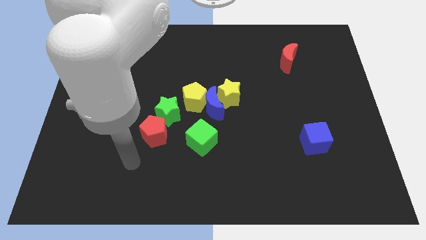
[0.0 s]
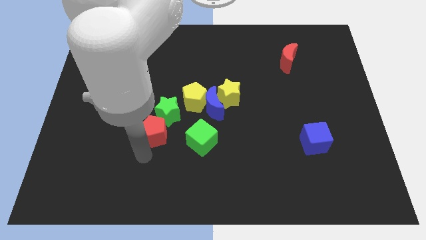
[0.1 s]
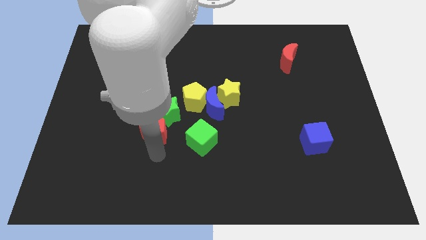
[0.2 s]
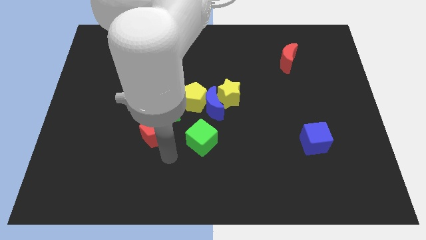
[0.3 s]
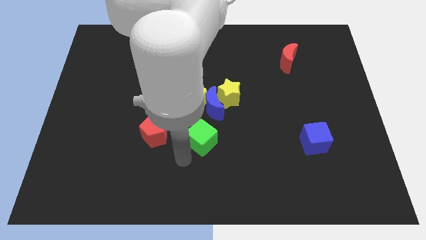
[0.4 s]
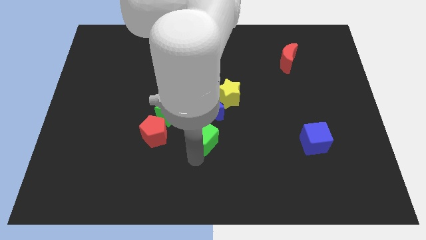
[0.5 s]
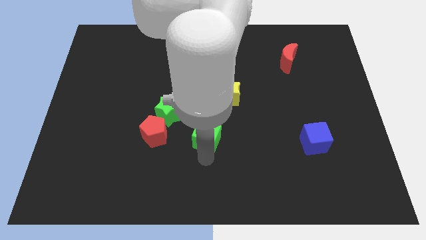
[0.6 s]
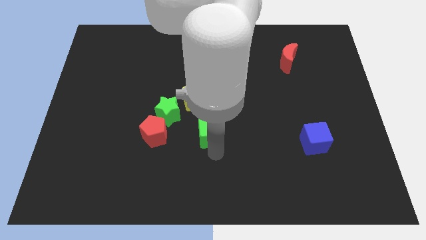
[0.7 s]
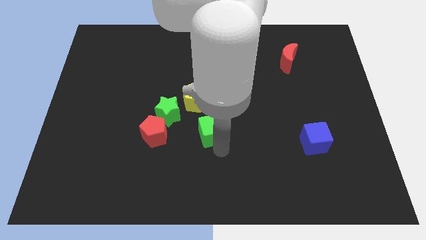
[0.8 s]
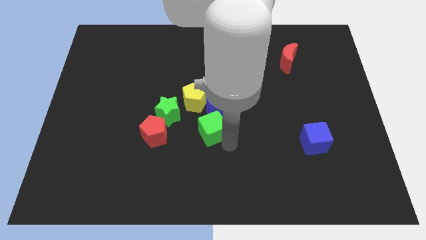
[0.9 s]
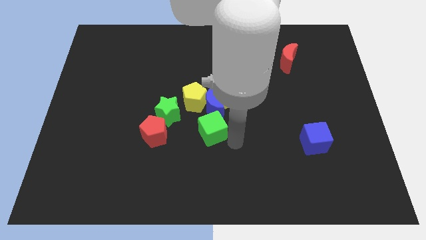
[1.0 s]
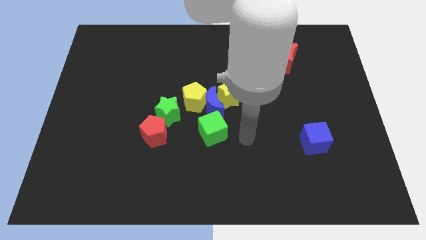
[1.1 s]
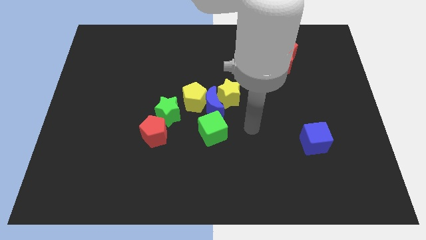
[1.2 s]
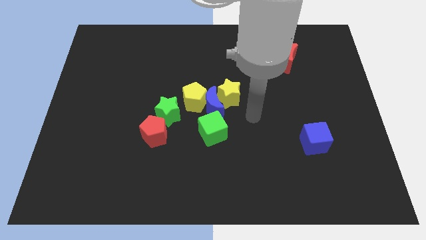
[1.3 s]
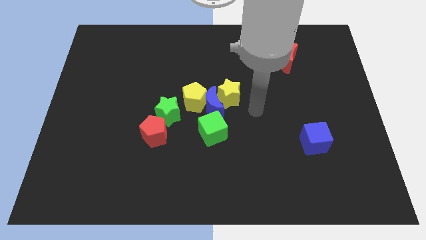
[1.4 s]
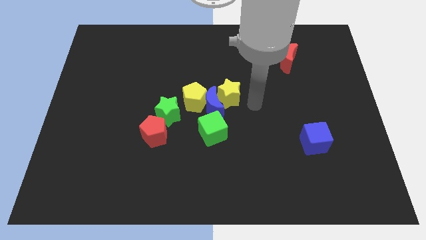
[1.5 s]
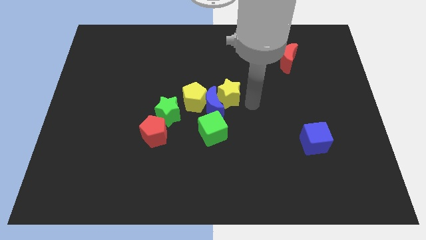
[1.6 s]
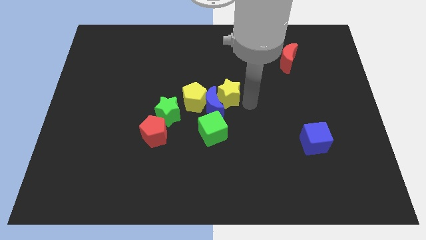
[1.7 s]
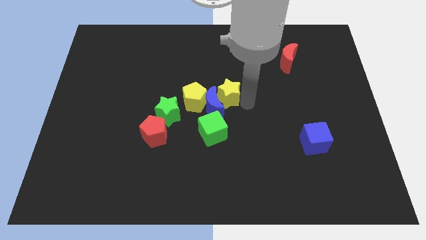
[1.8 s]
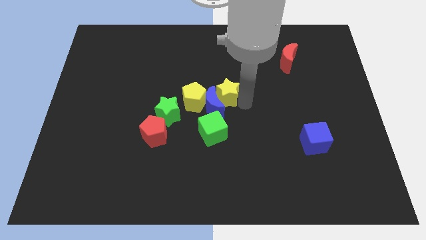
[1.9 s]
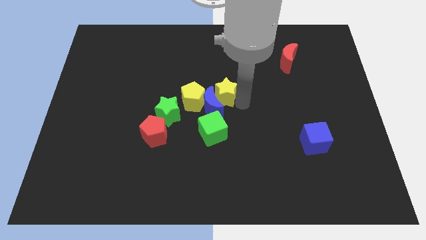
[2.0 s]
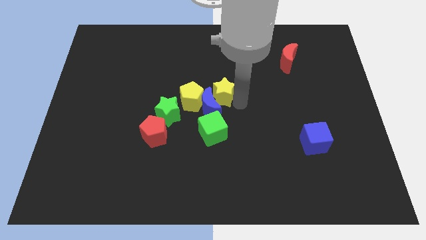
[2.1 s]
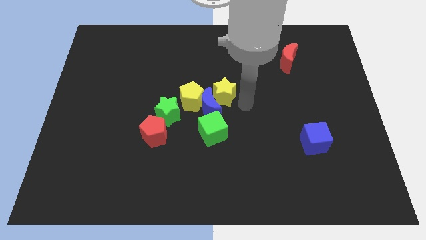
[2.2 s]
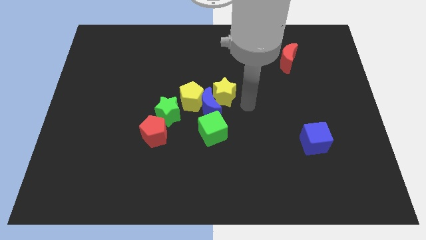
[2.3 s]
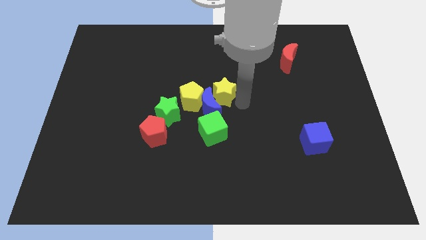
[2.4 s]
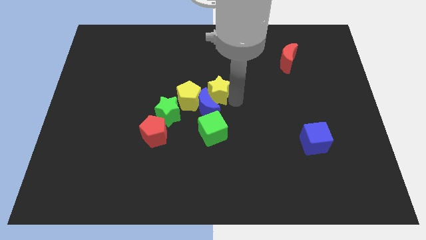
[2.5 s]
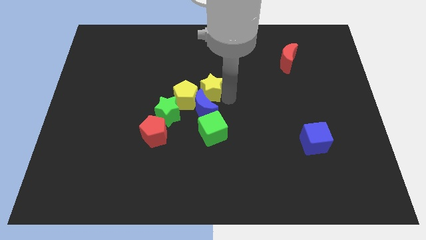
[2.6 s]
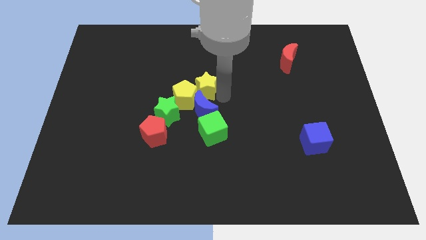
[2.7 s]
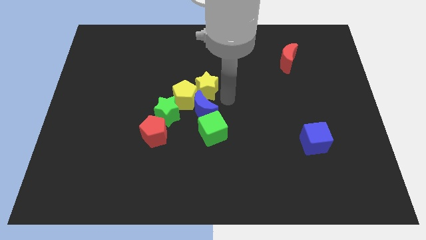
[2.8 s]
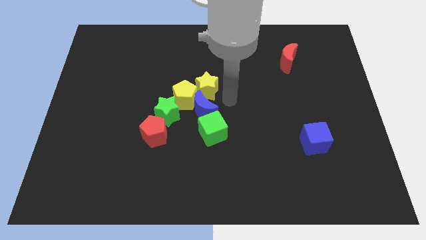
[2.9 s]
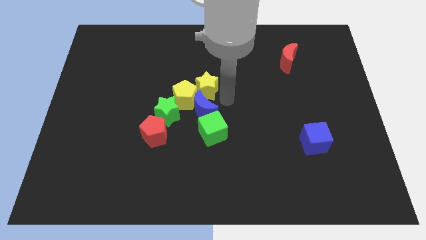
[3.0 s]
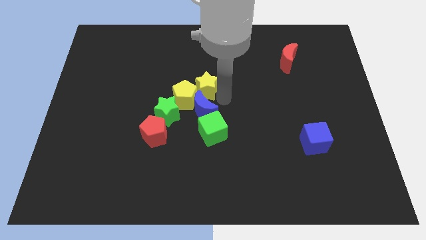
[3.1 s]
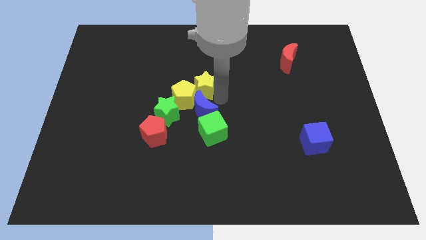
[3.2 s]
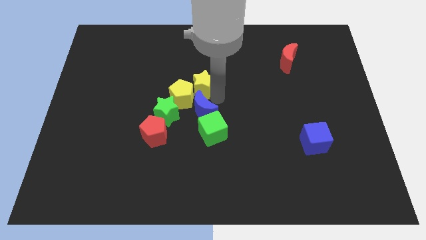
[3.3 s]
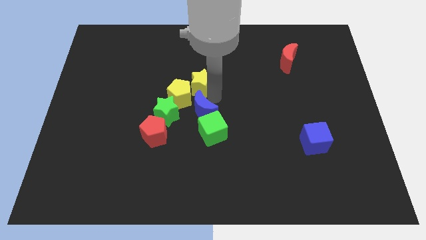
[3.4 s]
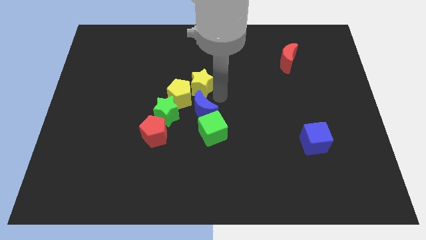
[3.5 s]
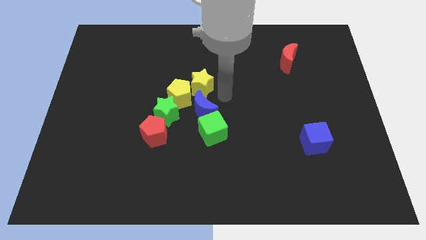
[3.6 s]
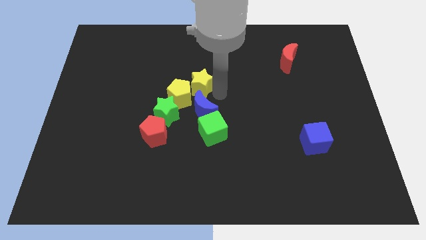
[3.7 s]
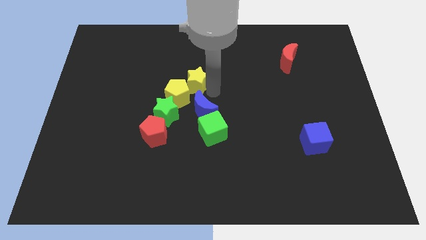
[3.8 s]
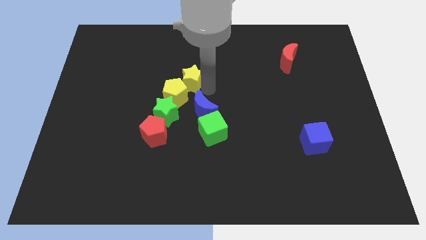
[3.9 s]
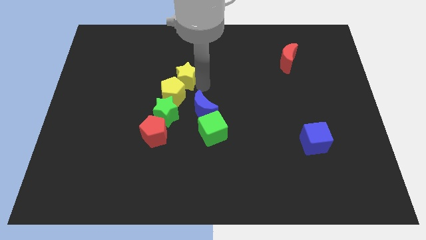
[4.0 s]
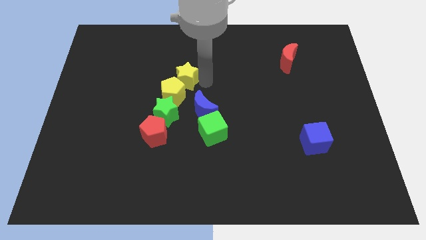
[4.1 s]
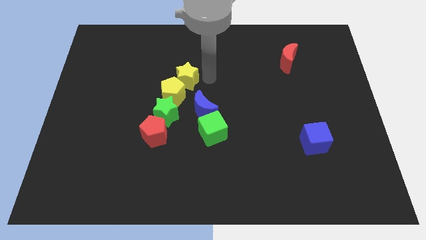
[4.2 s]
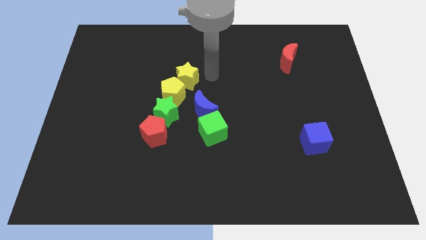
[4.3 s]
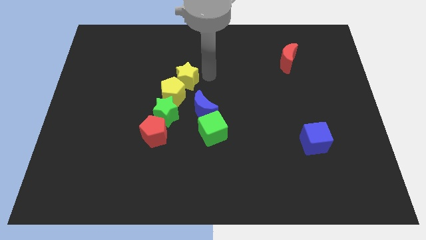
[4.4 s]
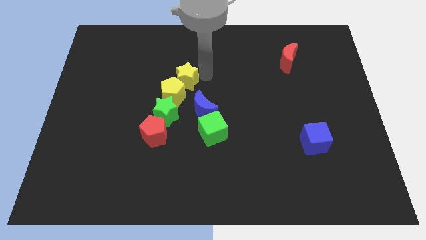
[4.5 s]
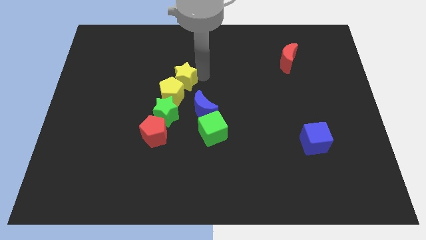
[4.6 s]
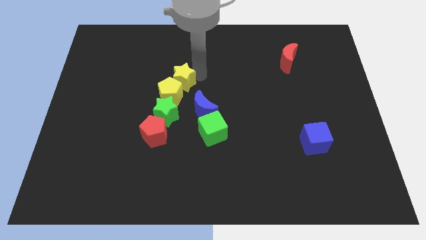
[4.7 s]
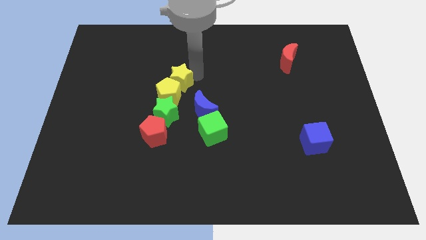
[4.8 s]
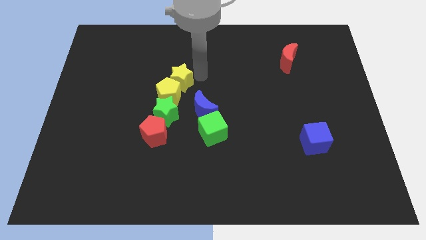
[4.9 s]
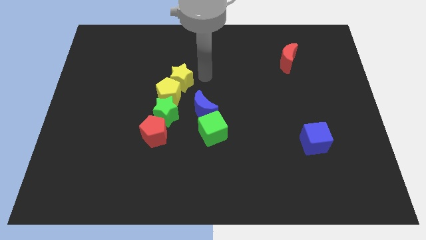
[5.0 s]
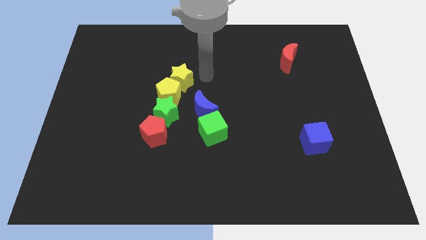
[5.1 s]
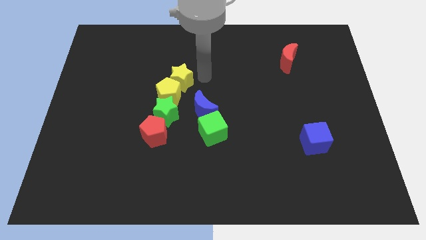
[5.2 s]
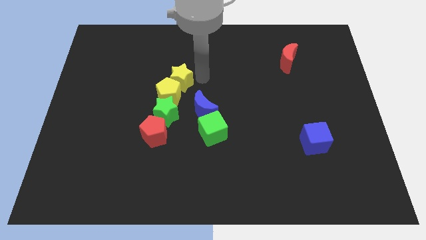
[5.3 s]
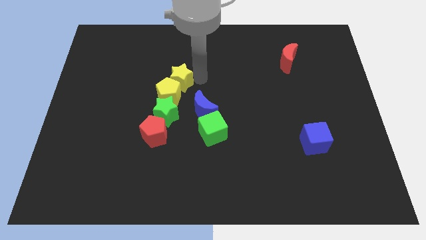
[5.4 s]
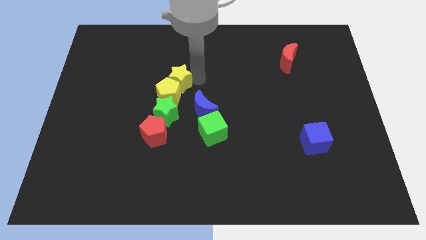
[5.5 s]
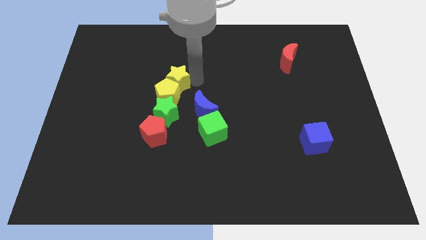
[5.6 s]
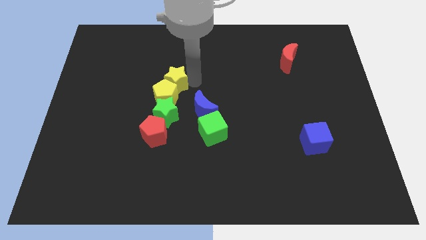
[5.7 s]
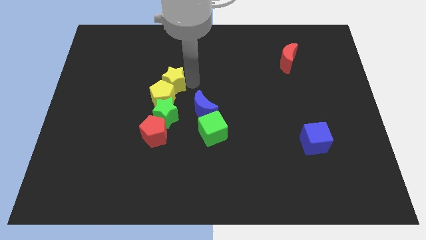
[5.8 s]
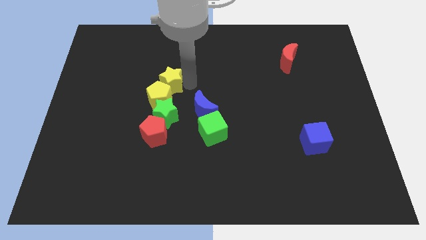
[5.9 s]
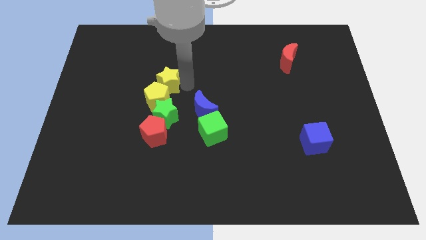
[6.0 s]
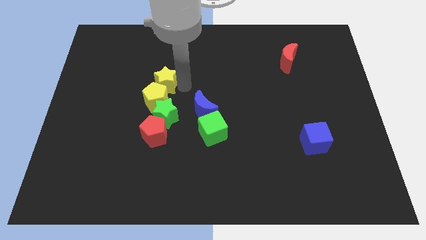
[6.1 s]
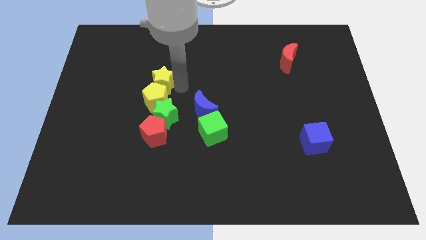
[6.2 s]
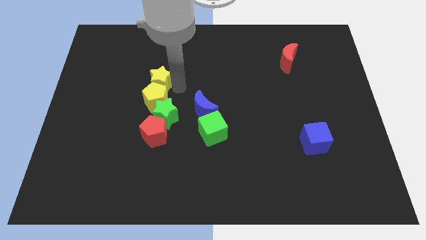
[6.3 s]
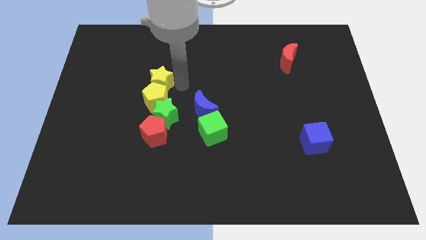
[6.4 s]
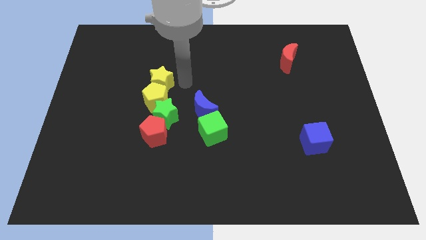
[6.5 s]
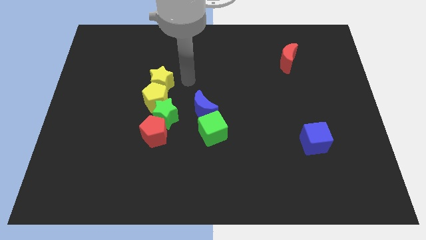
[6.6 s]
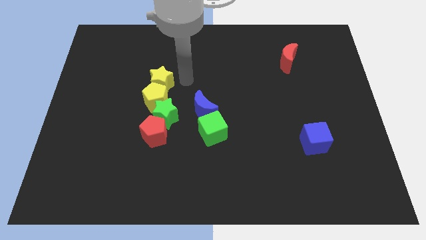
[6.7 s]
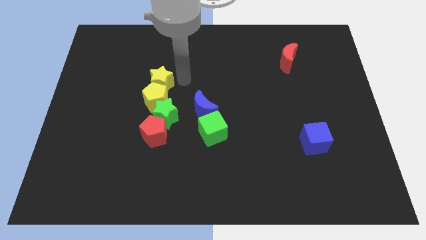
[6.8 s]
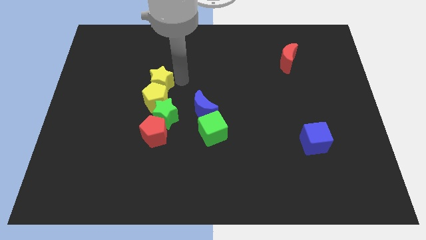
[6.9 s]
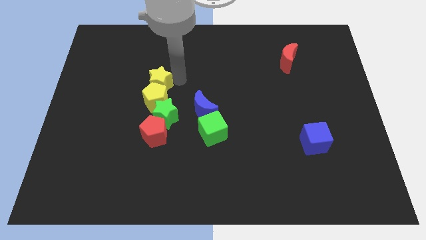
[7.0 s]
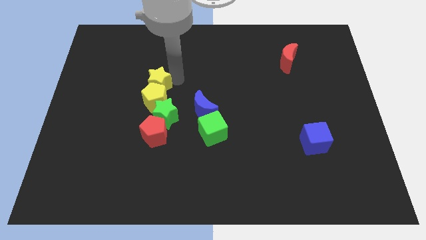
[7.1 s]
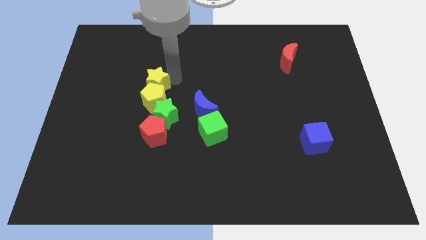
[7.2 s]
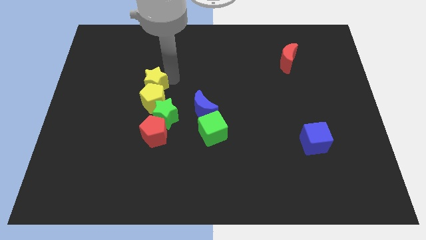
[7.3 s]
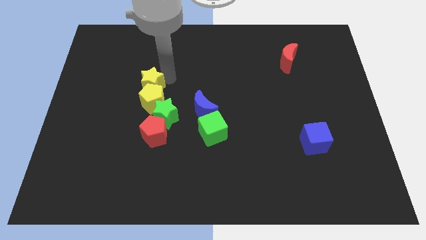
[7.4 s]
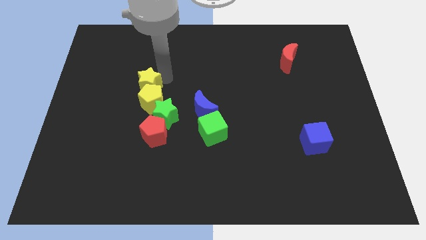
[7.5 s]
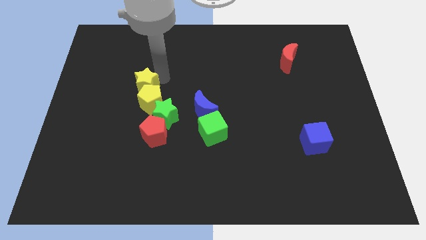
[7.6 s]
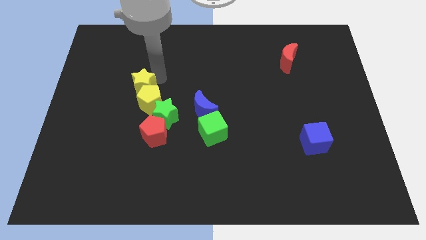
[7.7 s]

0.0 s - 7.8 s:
push the yellow star to the left

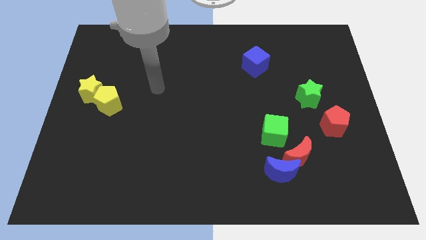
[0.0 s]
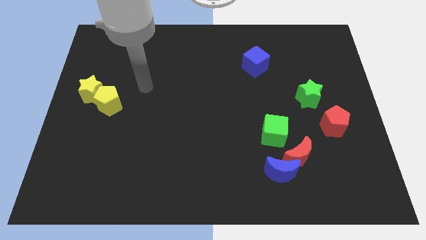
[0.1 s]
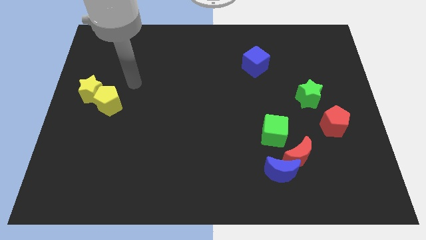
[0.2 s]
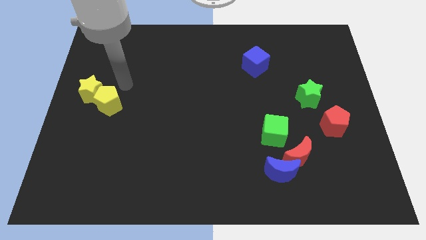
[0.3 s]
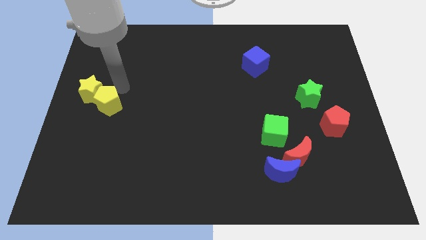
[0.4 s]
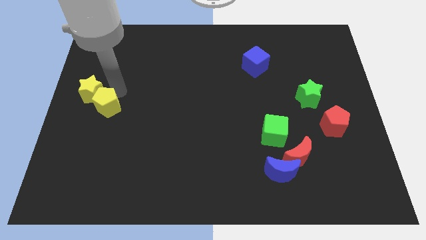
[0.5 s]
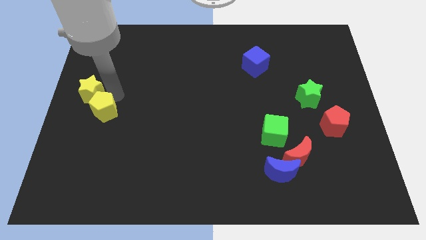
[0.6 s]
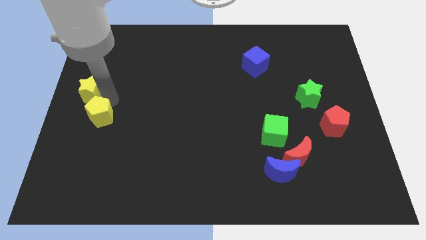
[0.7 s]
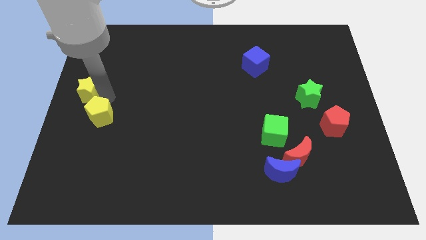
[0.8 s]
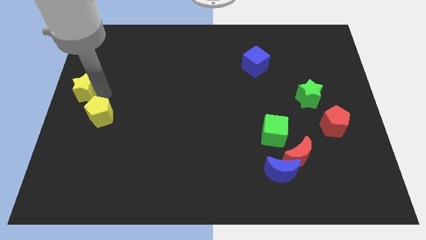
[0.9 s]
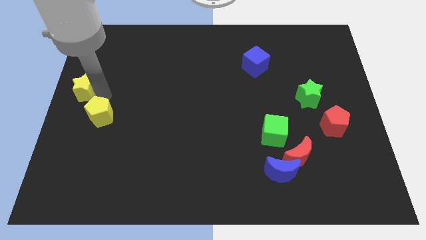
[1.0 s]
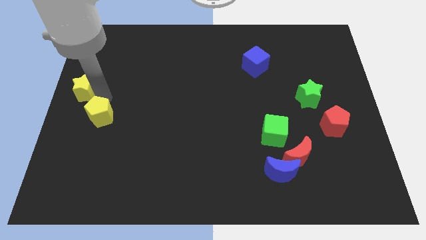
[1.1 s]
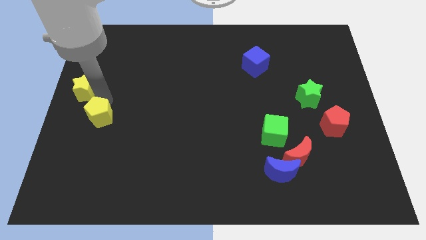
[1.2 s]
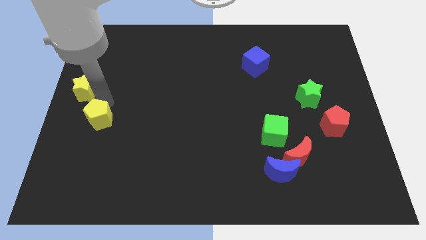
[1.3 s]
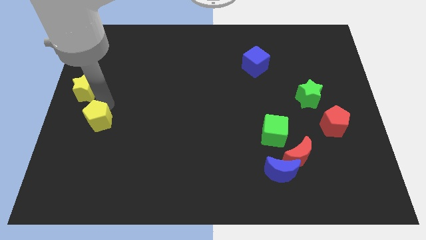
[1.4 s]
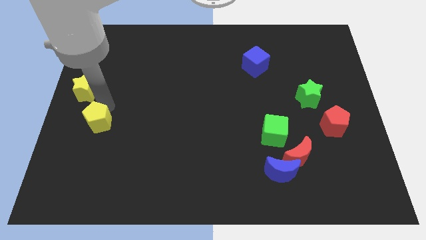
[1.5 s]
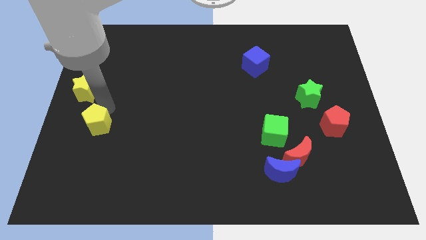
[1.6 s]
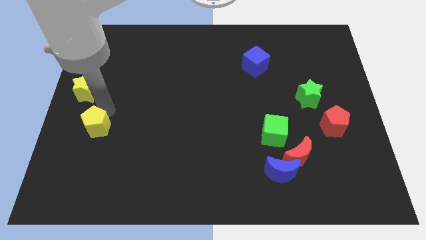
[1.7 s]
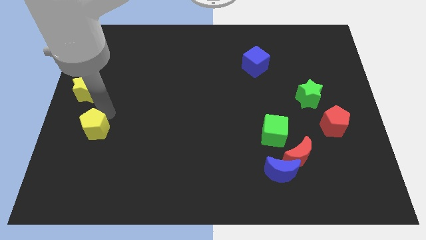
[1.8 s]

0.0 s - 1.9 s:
slide the yellow pentagon downwards a bit
